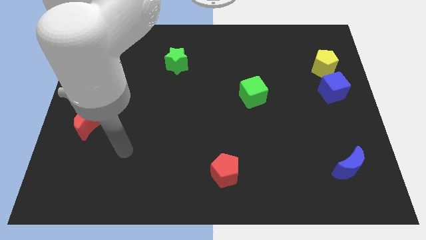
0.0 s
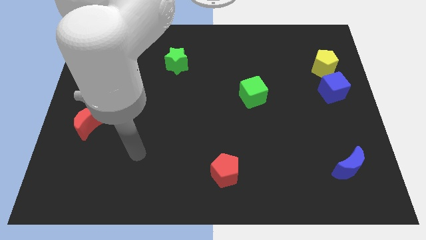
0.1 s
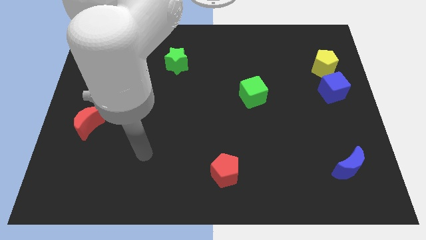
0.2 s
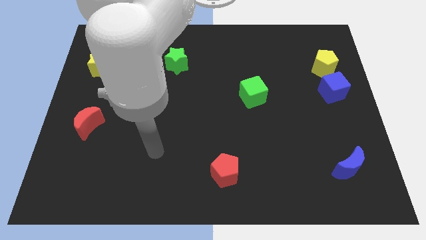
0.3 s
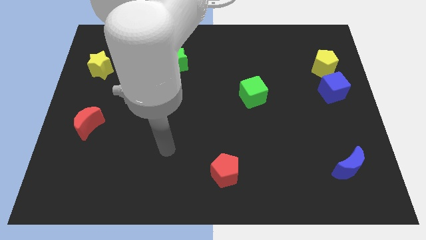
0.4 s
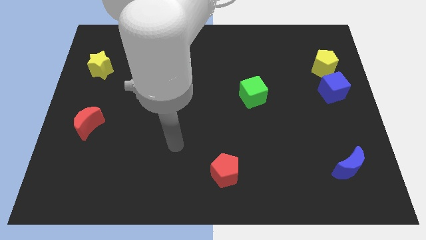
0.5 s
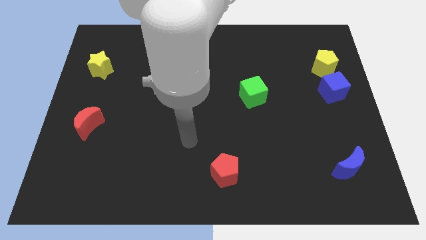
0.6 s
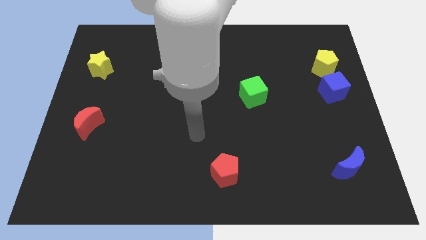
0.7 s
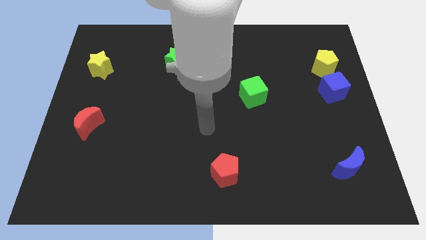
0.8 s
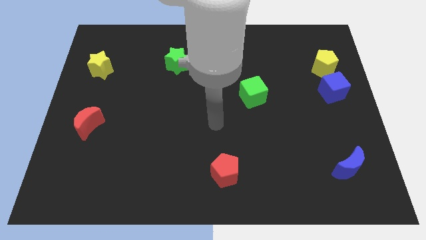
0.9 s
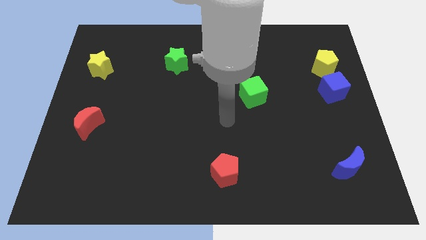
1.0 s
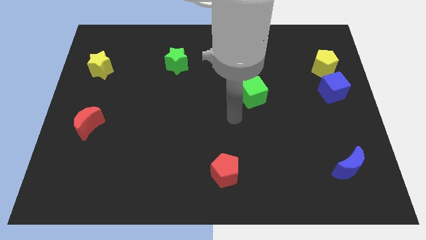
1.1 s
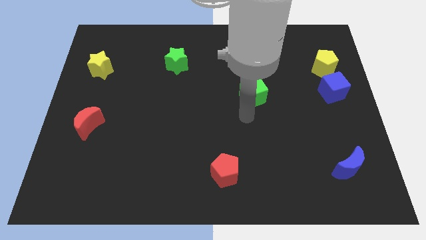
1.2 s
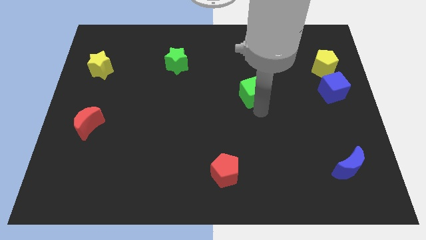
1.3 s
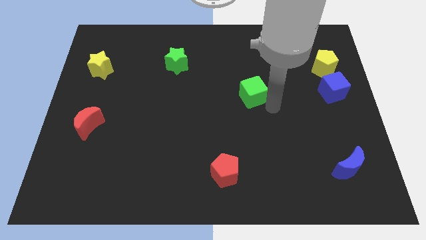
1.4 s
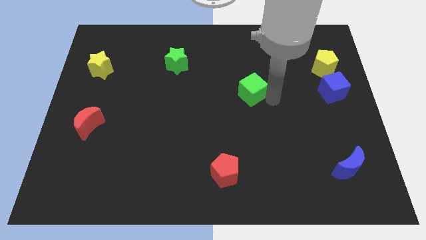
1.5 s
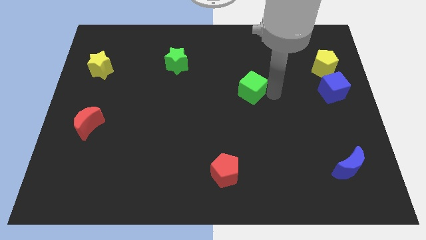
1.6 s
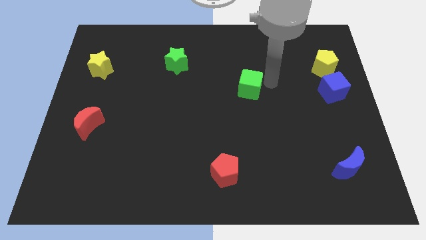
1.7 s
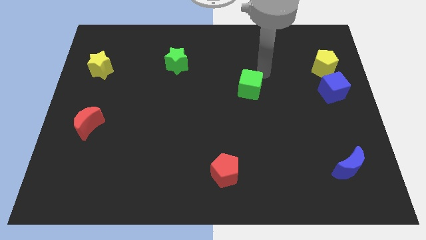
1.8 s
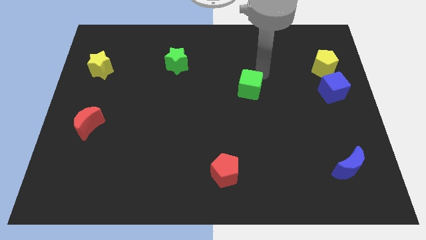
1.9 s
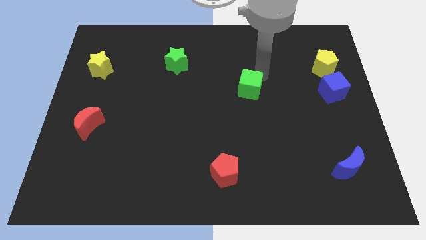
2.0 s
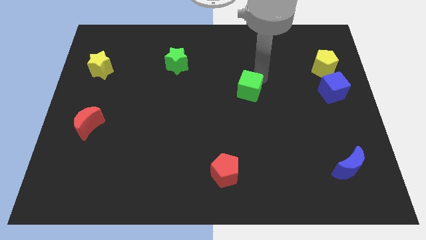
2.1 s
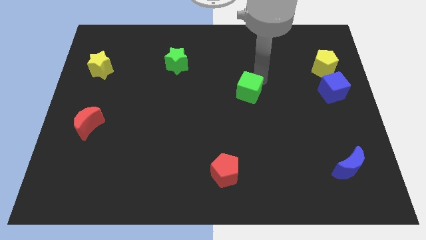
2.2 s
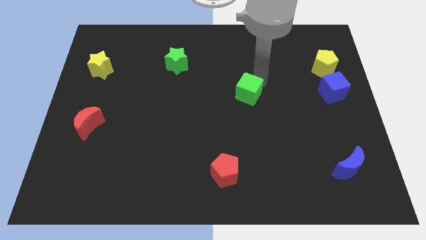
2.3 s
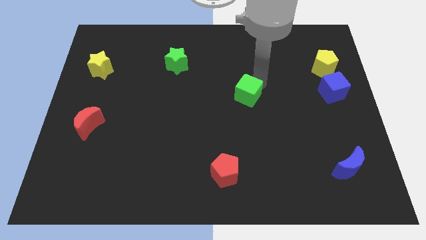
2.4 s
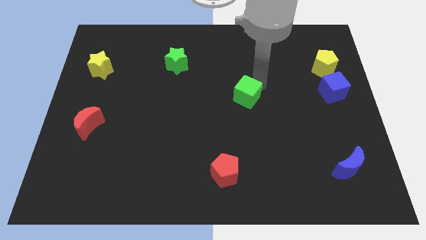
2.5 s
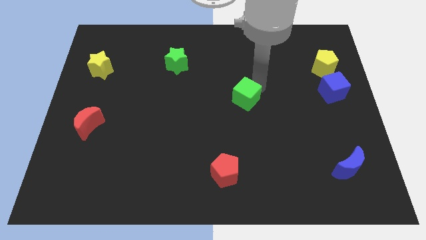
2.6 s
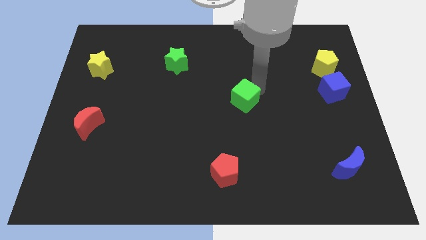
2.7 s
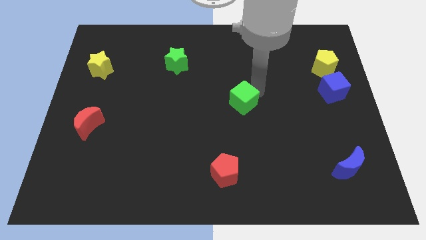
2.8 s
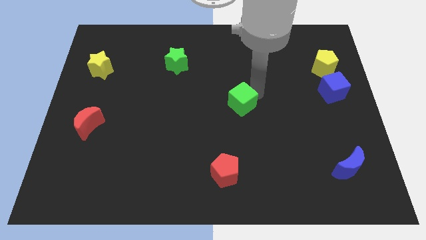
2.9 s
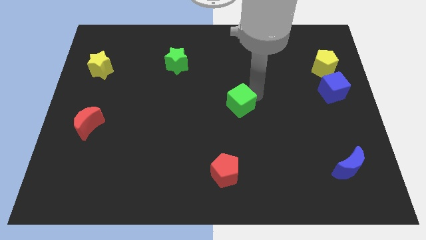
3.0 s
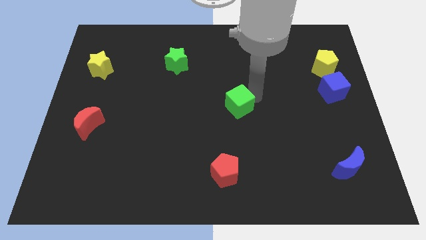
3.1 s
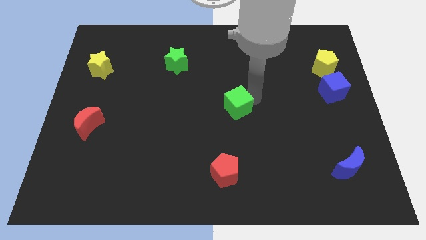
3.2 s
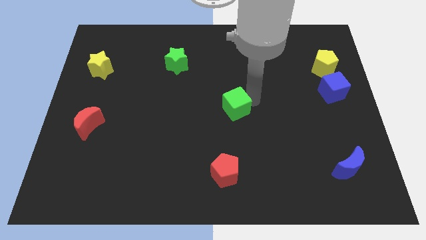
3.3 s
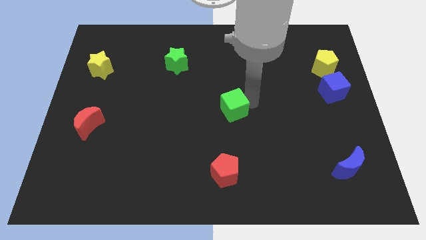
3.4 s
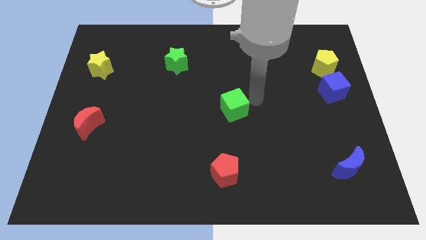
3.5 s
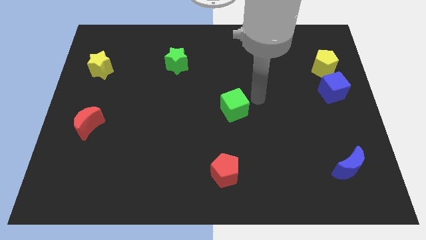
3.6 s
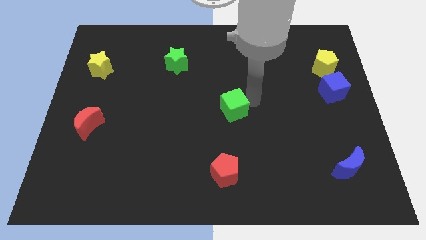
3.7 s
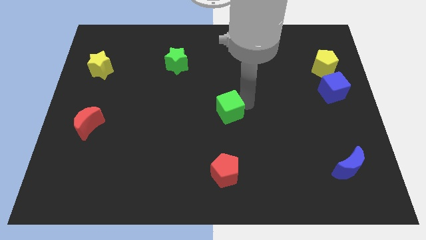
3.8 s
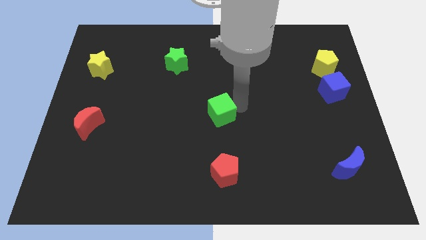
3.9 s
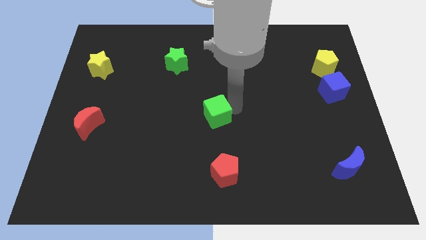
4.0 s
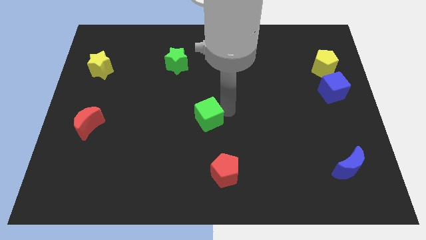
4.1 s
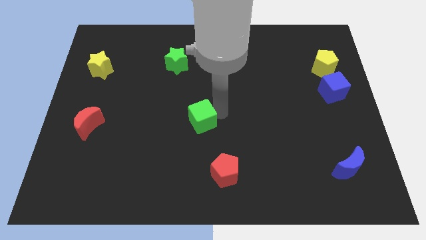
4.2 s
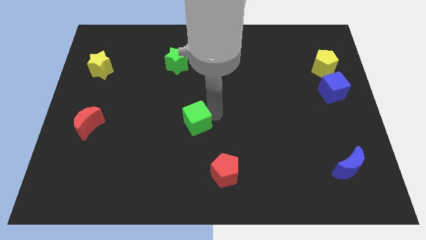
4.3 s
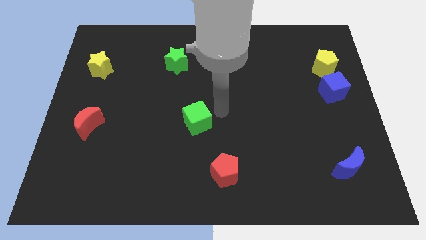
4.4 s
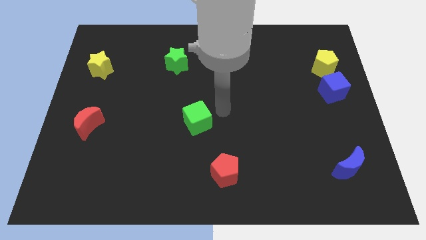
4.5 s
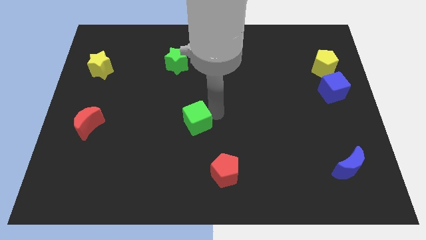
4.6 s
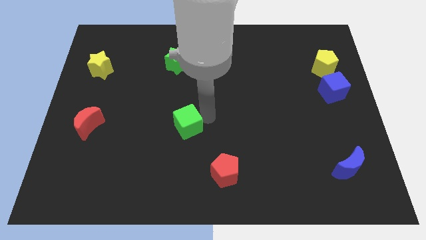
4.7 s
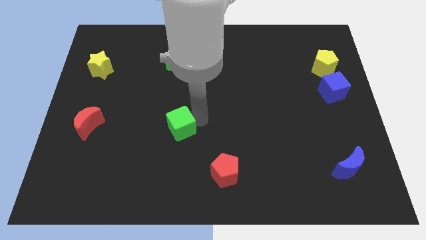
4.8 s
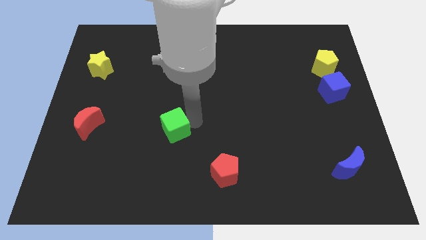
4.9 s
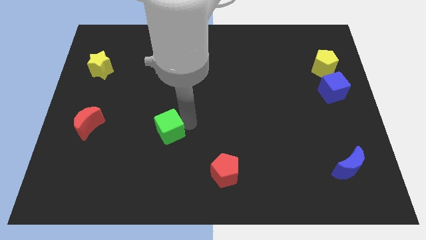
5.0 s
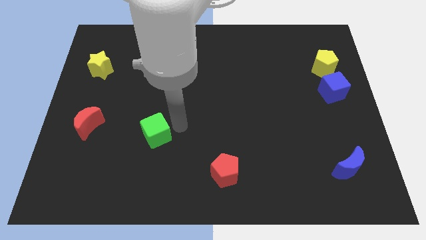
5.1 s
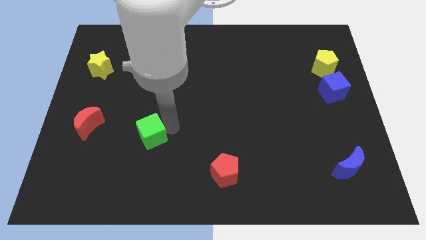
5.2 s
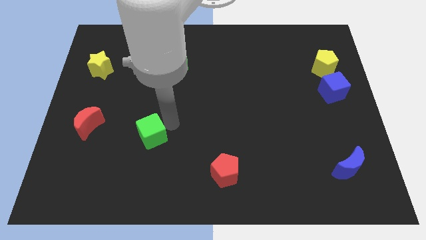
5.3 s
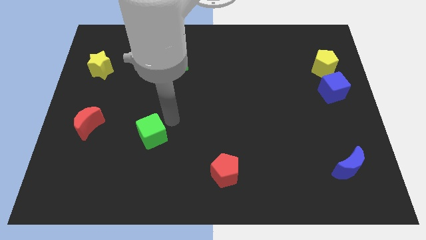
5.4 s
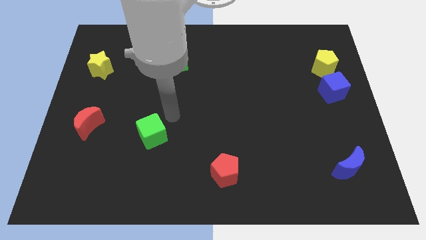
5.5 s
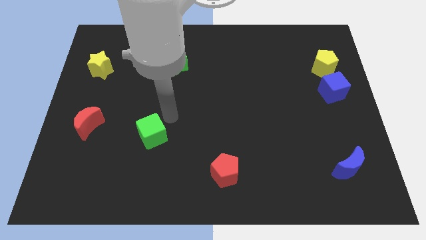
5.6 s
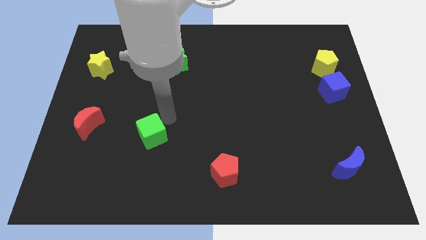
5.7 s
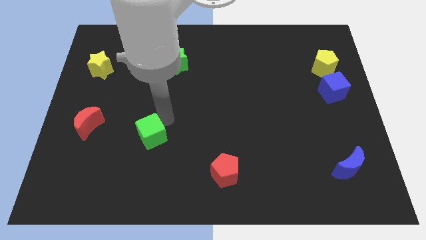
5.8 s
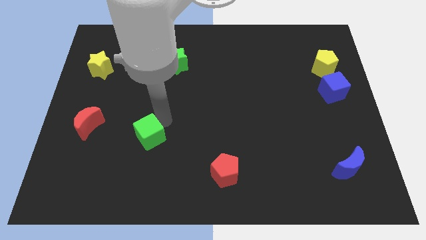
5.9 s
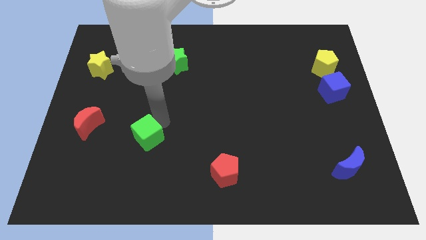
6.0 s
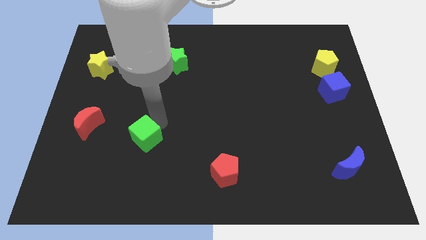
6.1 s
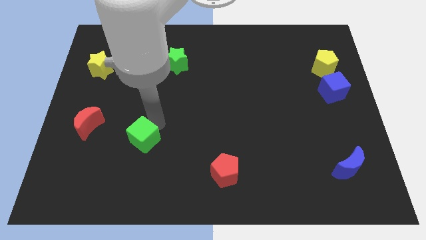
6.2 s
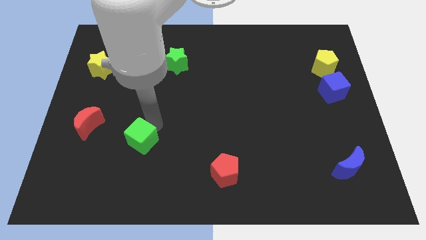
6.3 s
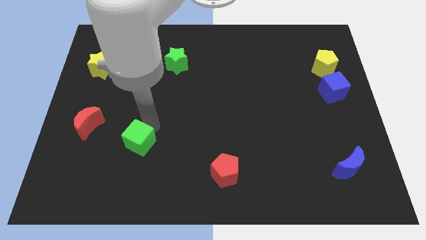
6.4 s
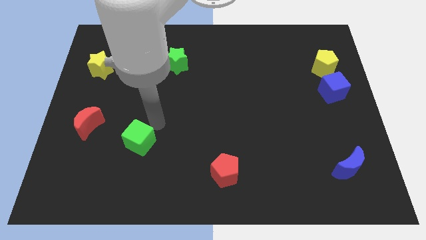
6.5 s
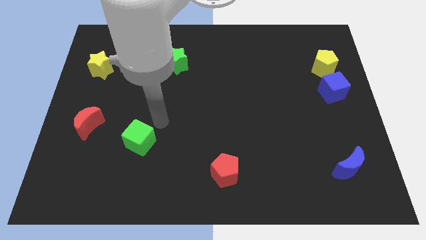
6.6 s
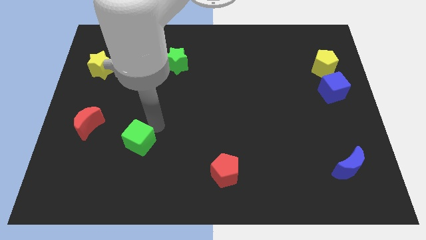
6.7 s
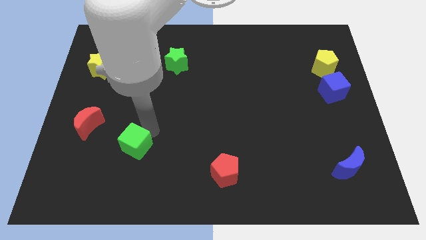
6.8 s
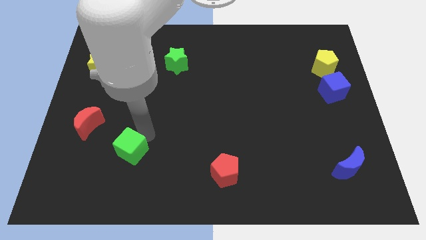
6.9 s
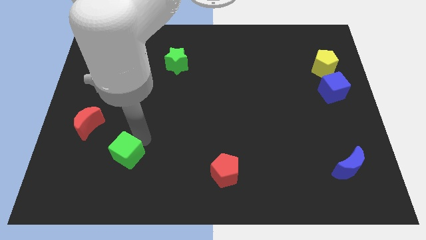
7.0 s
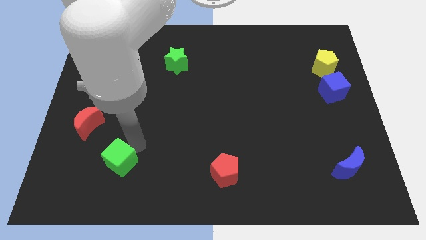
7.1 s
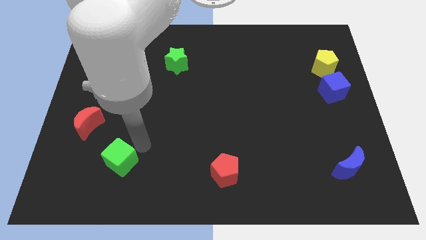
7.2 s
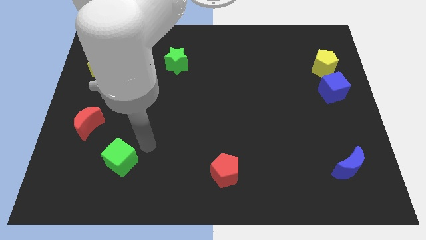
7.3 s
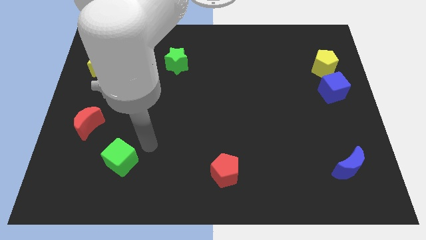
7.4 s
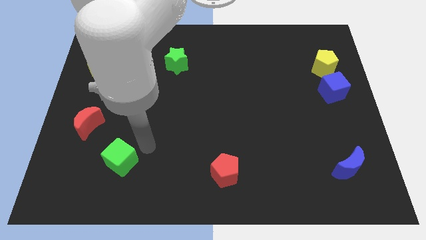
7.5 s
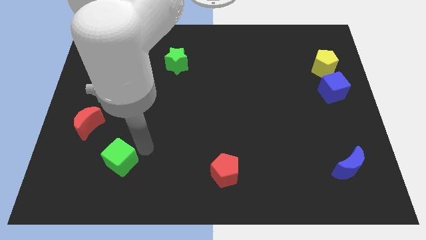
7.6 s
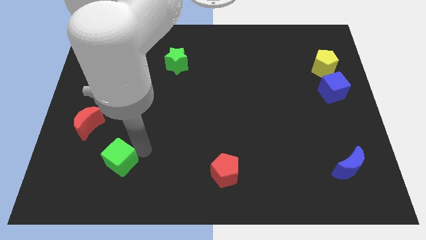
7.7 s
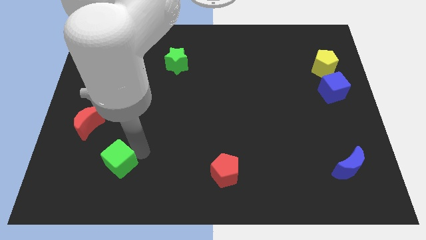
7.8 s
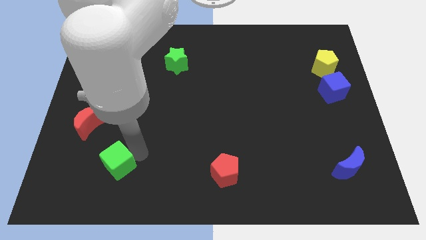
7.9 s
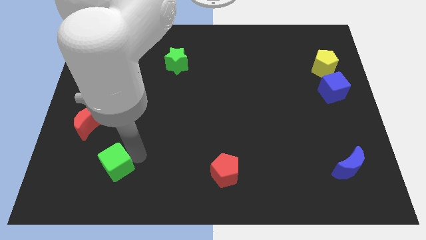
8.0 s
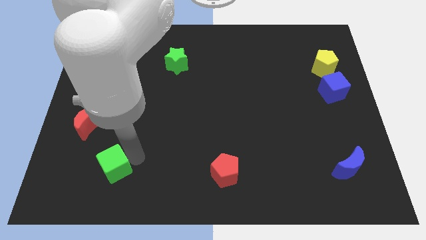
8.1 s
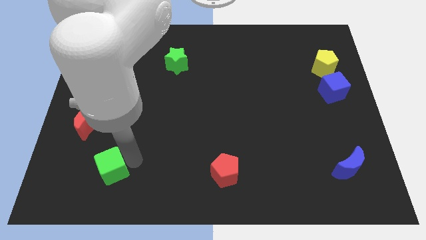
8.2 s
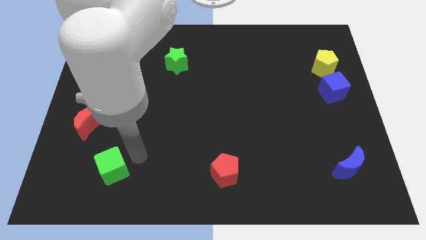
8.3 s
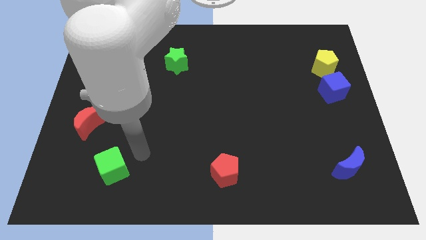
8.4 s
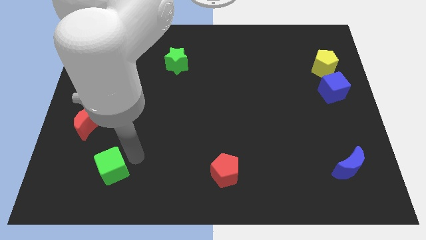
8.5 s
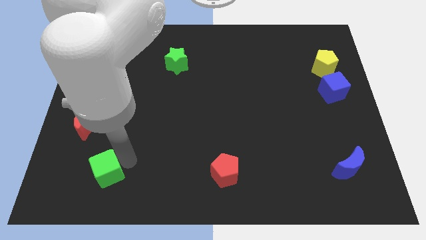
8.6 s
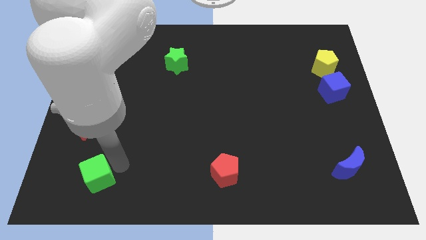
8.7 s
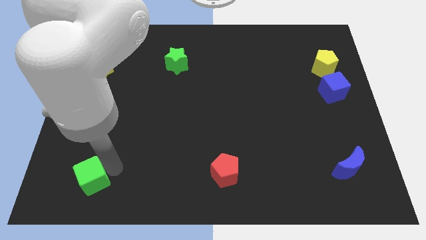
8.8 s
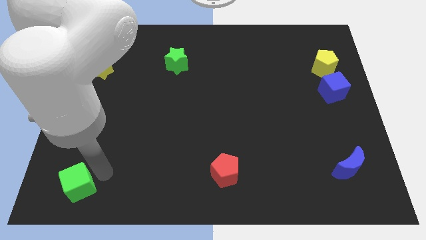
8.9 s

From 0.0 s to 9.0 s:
push the green cube to the bottom left
